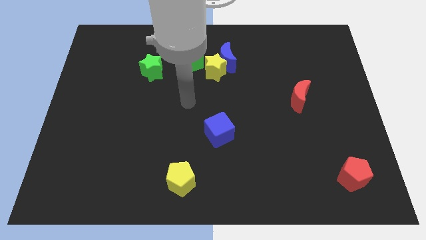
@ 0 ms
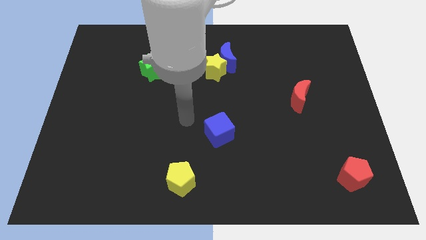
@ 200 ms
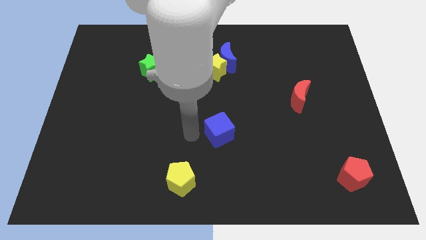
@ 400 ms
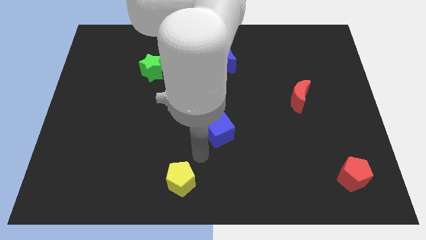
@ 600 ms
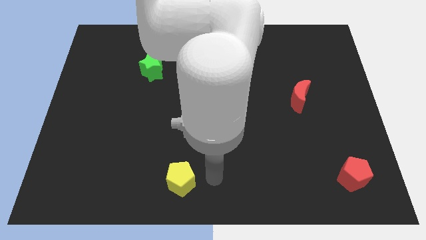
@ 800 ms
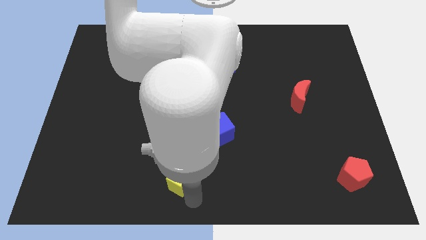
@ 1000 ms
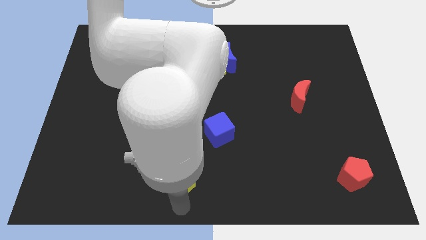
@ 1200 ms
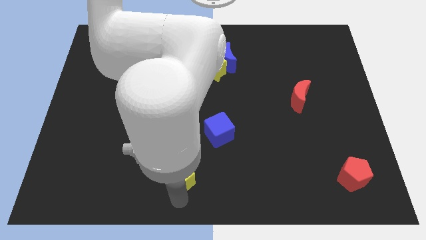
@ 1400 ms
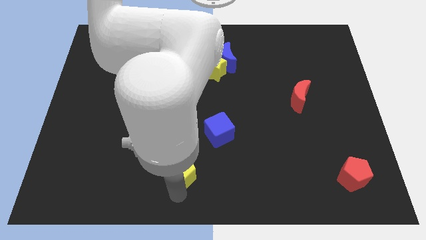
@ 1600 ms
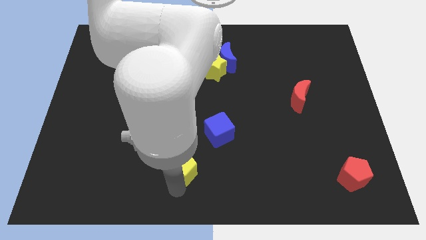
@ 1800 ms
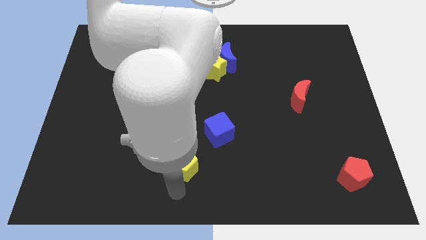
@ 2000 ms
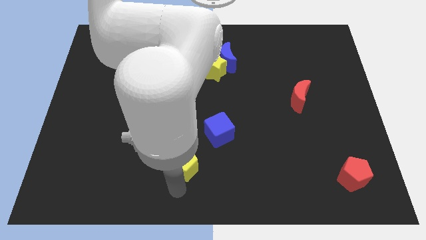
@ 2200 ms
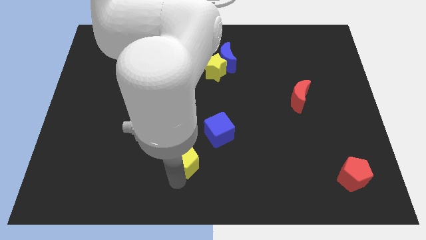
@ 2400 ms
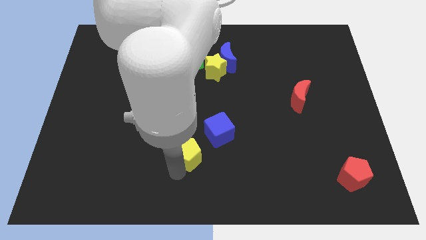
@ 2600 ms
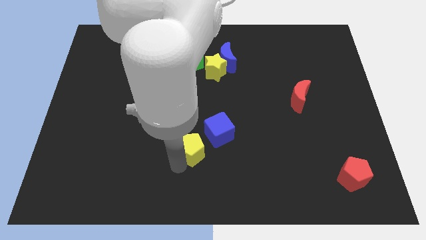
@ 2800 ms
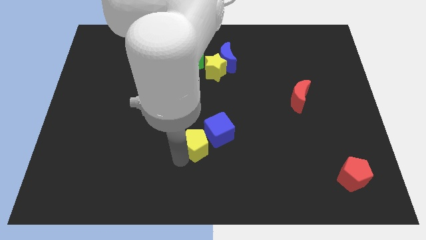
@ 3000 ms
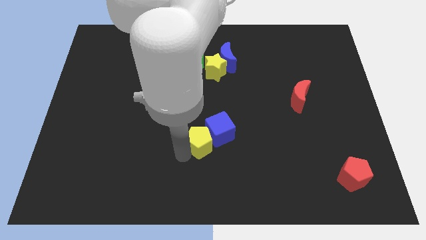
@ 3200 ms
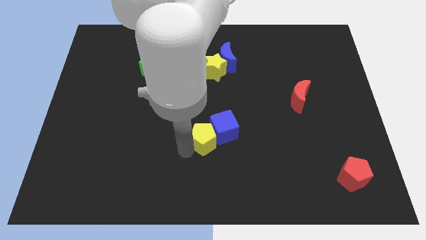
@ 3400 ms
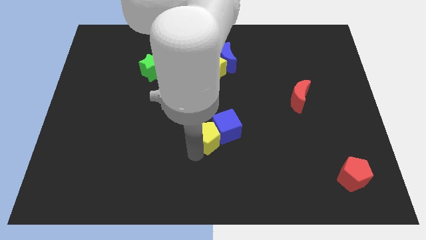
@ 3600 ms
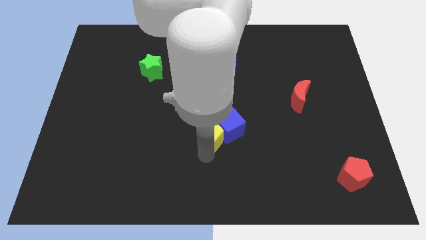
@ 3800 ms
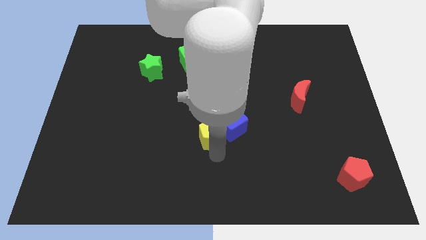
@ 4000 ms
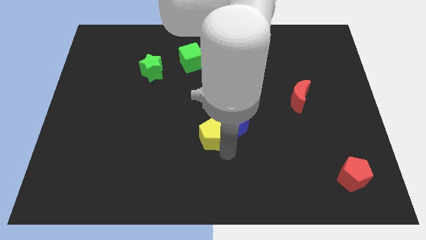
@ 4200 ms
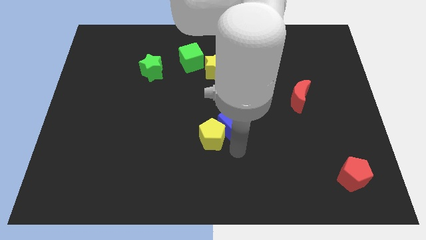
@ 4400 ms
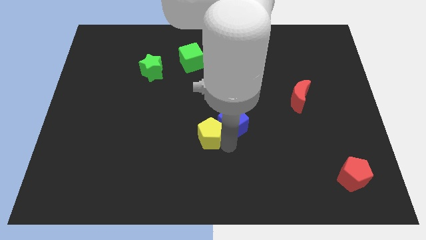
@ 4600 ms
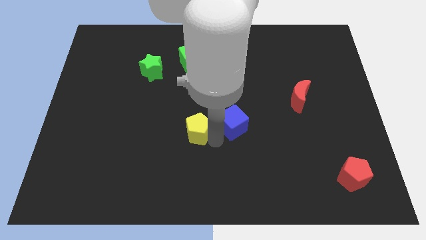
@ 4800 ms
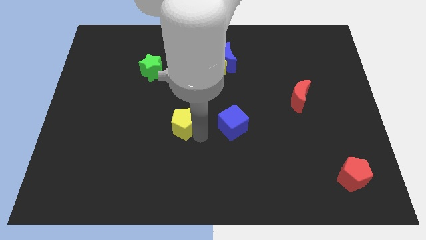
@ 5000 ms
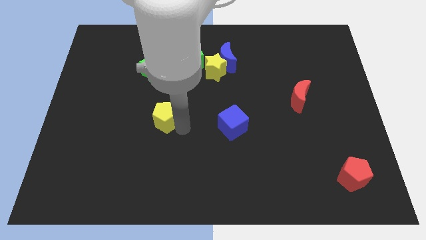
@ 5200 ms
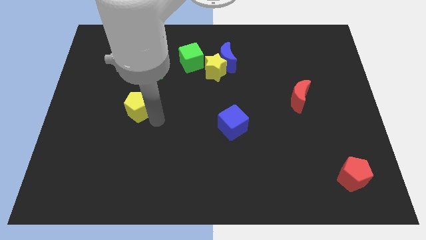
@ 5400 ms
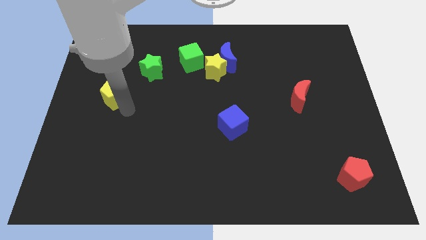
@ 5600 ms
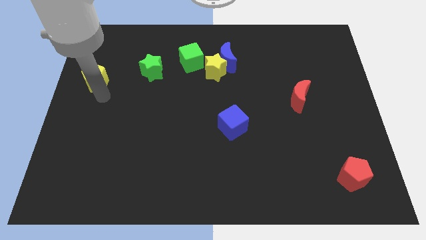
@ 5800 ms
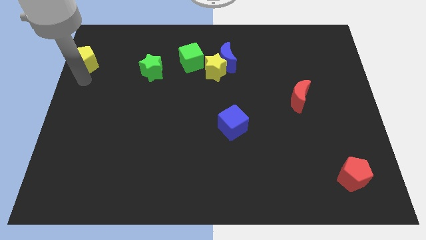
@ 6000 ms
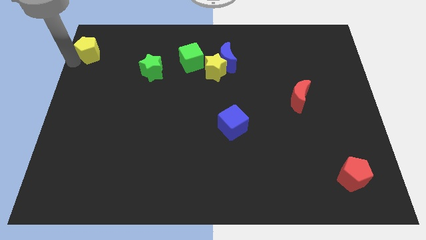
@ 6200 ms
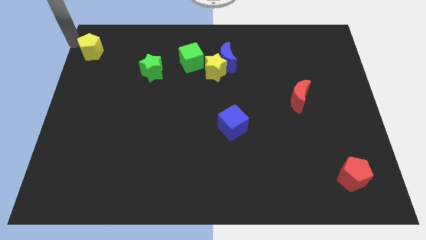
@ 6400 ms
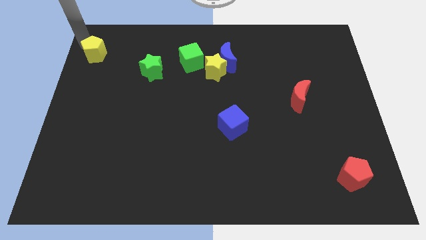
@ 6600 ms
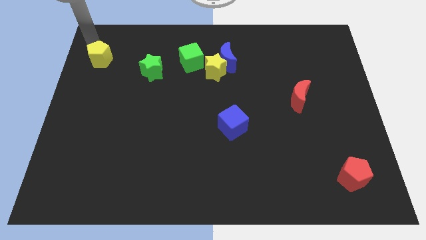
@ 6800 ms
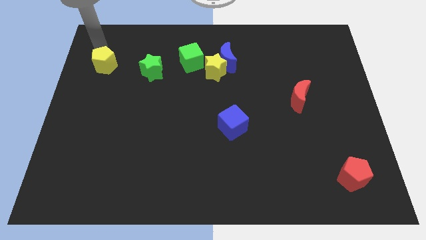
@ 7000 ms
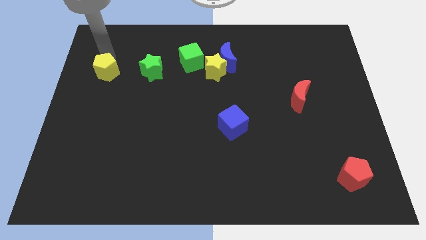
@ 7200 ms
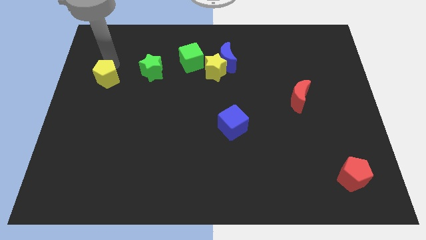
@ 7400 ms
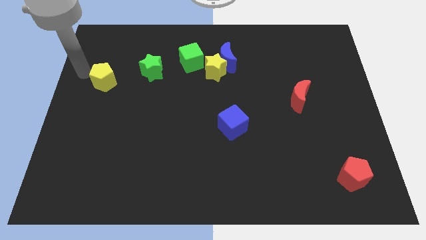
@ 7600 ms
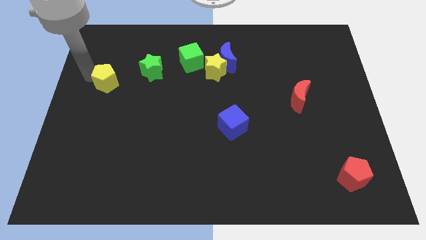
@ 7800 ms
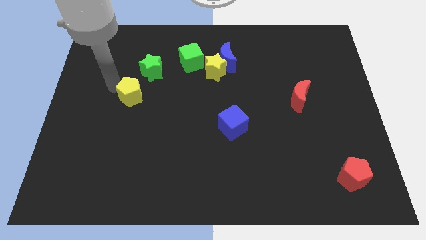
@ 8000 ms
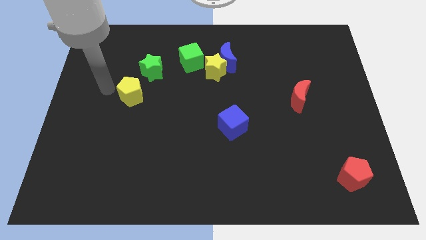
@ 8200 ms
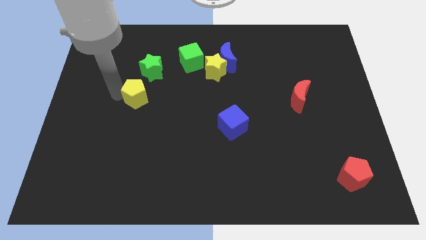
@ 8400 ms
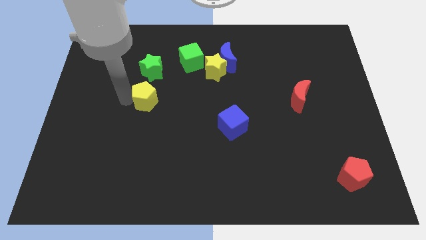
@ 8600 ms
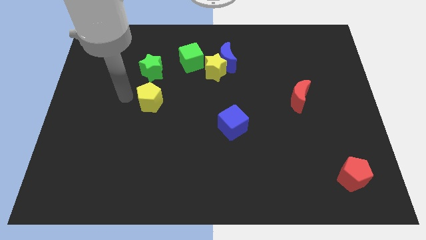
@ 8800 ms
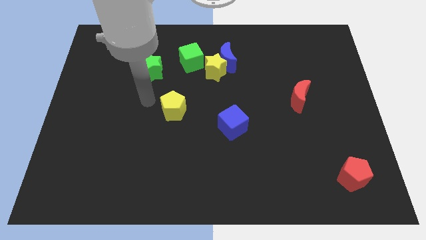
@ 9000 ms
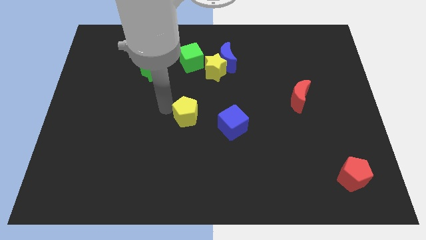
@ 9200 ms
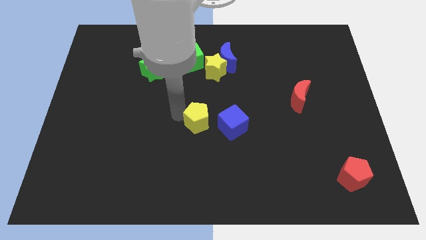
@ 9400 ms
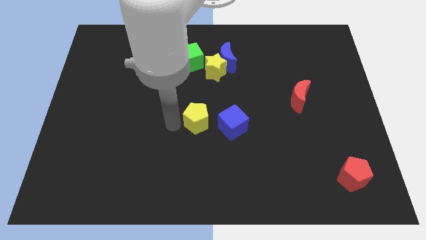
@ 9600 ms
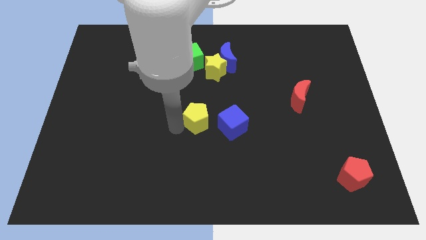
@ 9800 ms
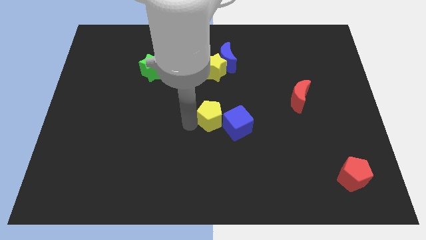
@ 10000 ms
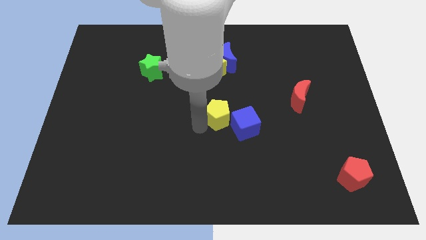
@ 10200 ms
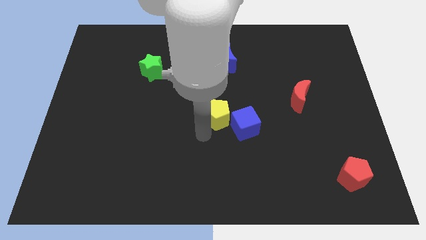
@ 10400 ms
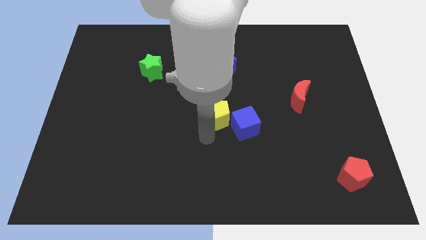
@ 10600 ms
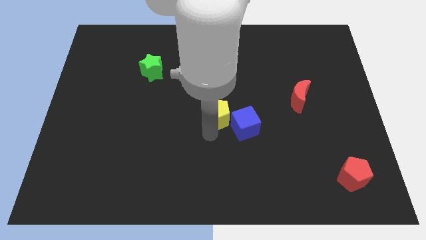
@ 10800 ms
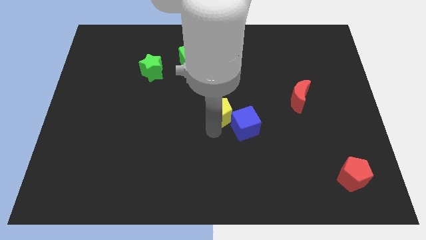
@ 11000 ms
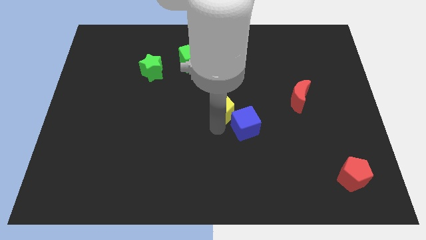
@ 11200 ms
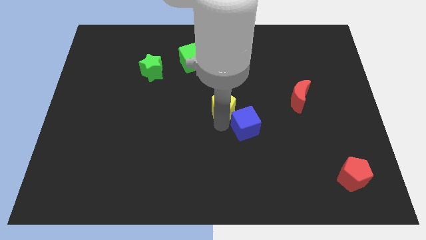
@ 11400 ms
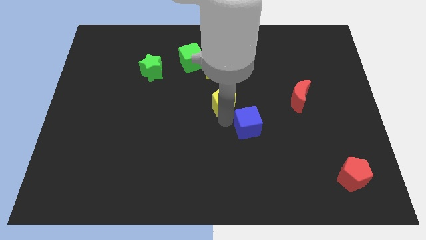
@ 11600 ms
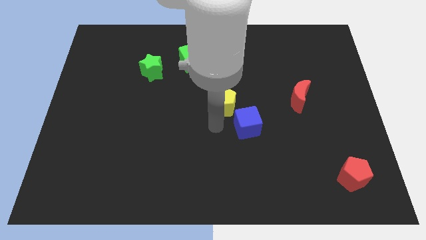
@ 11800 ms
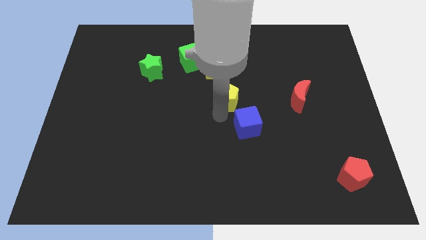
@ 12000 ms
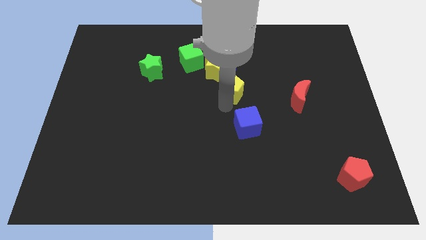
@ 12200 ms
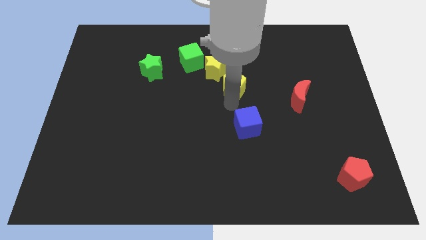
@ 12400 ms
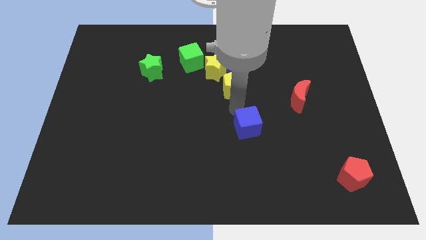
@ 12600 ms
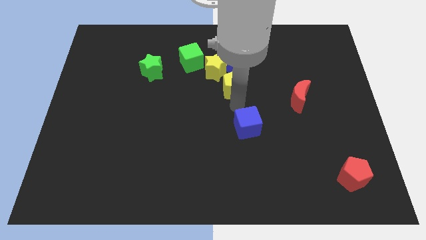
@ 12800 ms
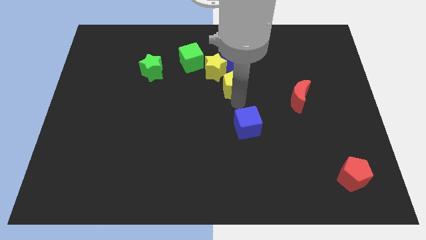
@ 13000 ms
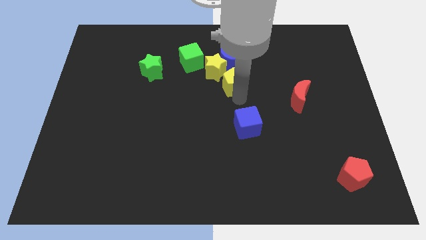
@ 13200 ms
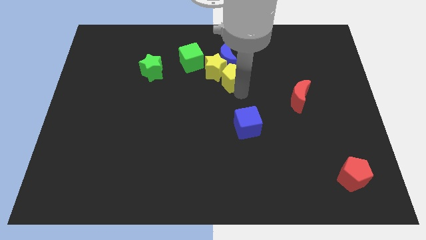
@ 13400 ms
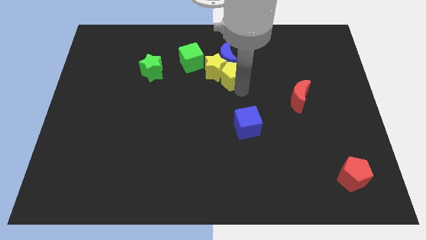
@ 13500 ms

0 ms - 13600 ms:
slide the yellow pentagon close to the blue moon

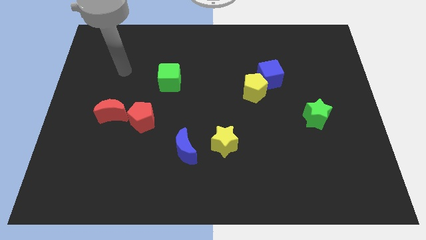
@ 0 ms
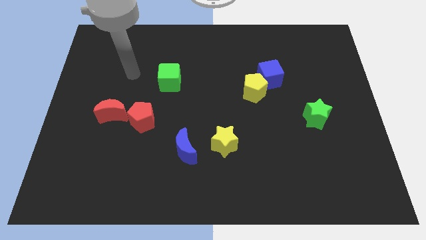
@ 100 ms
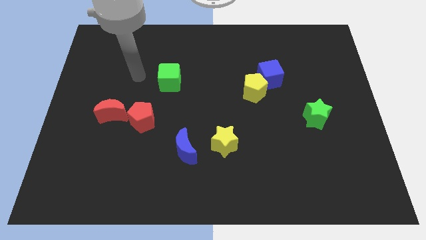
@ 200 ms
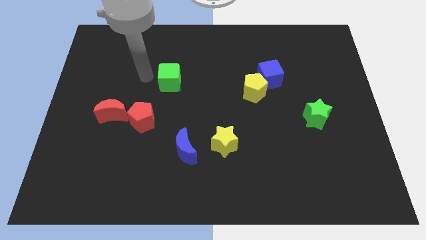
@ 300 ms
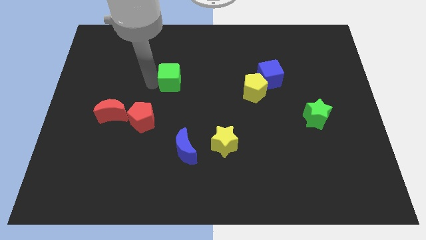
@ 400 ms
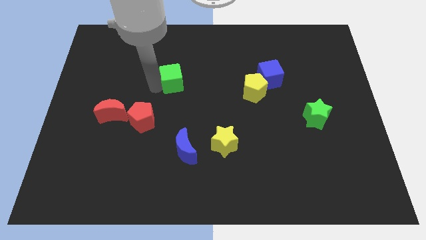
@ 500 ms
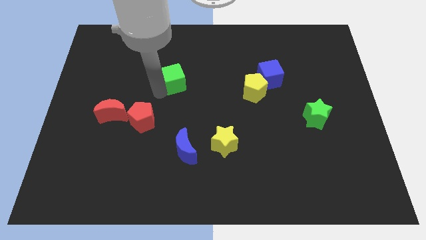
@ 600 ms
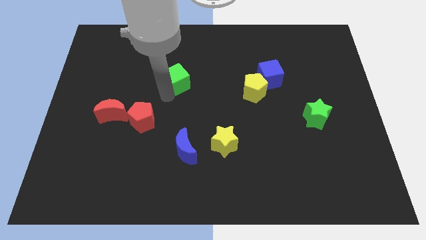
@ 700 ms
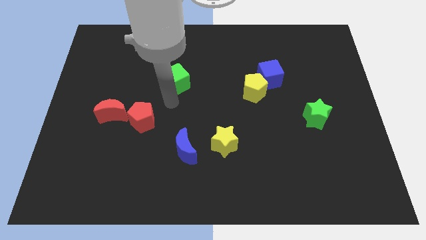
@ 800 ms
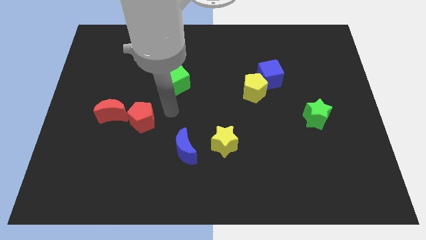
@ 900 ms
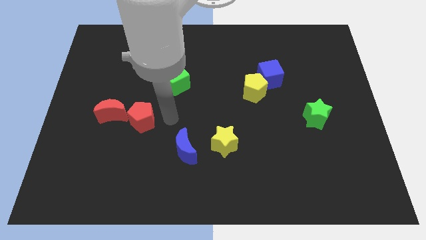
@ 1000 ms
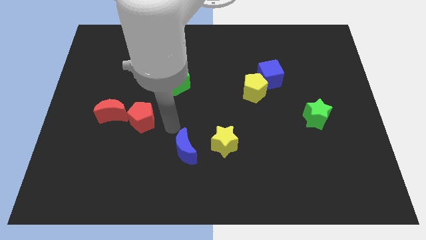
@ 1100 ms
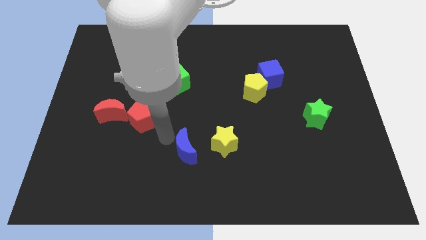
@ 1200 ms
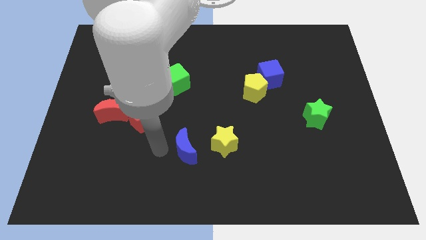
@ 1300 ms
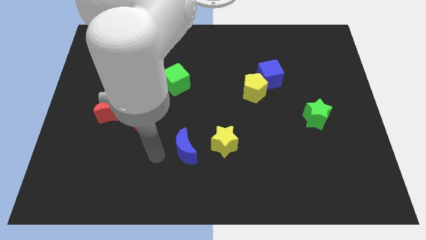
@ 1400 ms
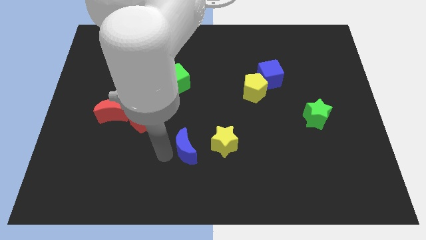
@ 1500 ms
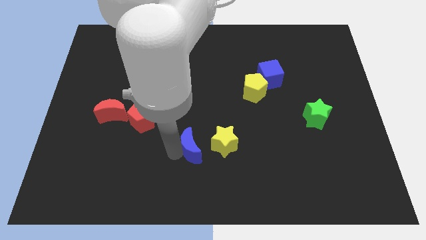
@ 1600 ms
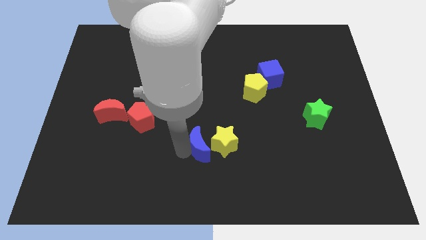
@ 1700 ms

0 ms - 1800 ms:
move the blue moon next to the yellow star
